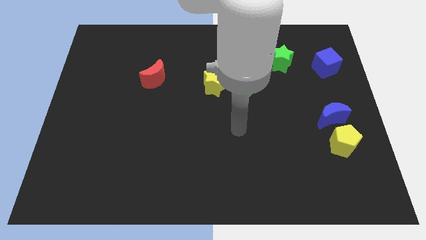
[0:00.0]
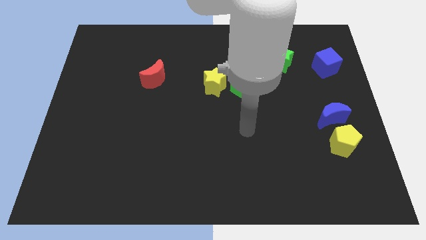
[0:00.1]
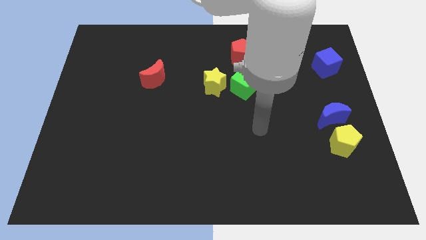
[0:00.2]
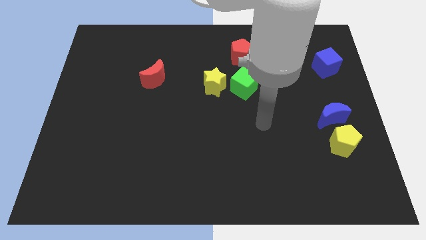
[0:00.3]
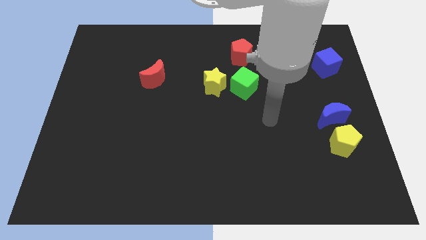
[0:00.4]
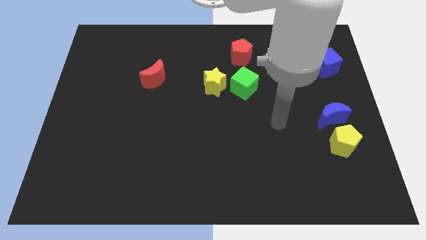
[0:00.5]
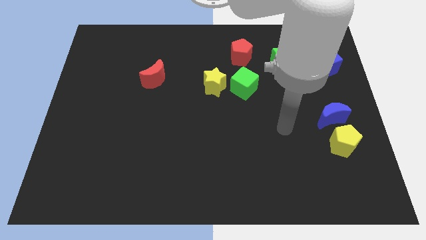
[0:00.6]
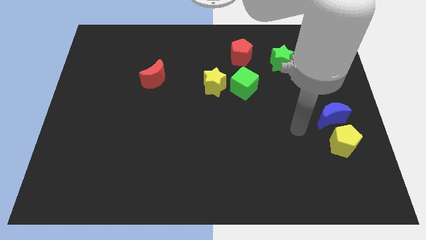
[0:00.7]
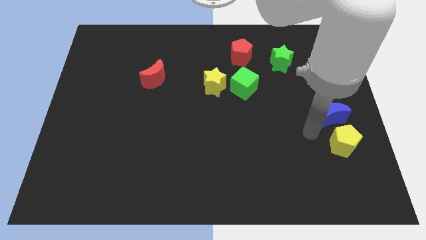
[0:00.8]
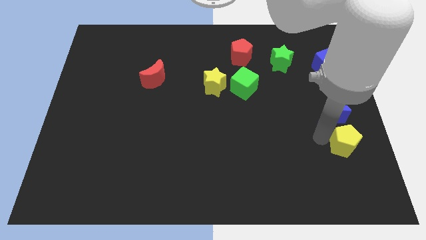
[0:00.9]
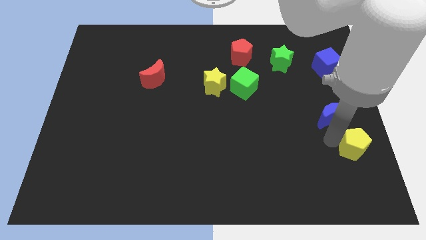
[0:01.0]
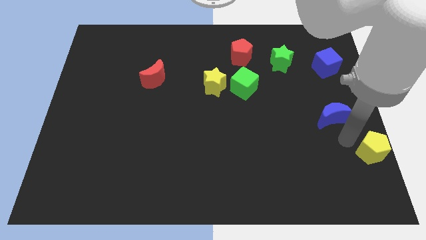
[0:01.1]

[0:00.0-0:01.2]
pull the blue moon apart from the yellow pentagon

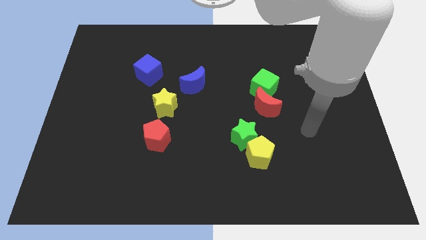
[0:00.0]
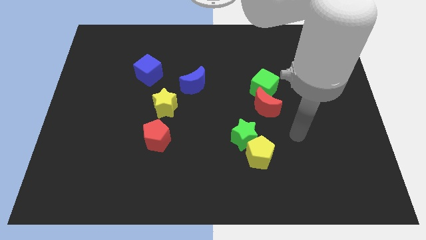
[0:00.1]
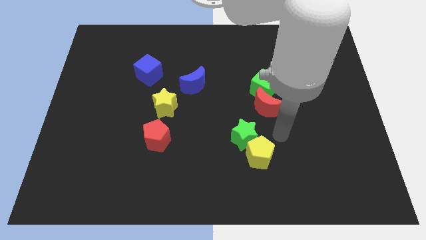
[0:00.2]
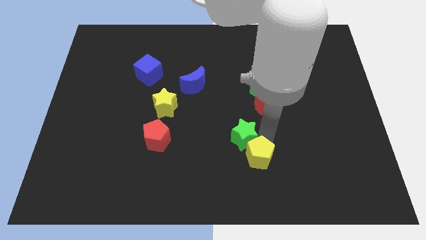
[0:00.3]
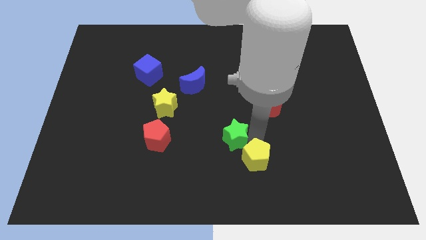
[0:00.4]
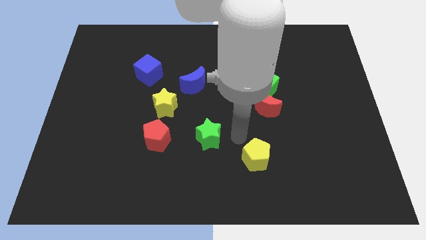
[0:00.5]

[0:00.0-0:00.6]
move the yellow pentagon away from the green star

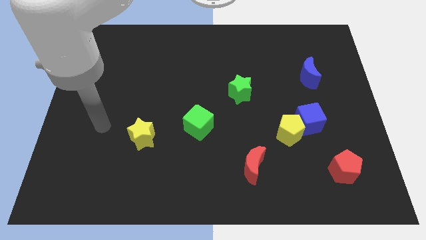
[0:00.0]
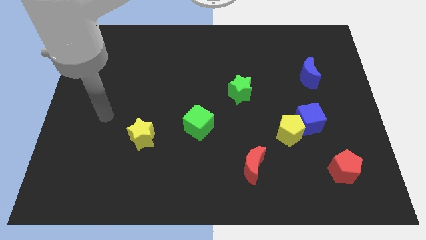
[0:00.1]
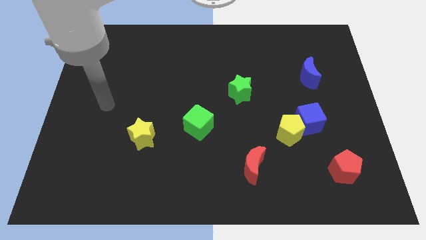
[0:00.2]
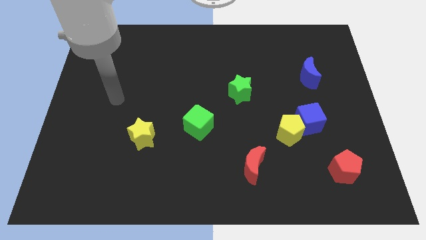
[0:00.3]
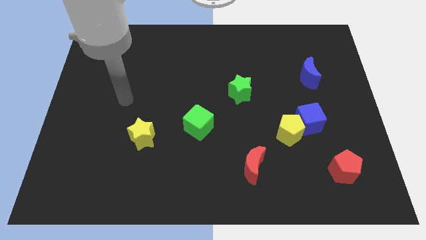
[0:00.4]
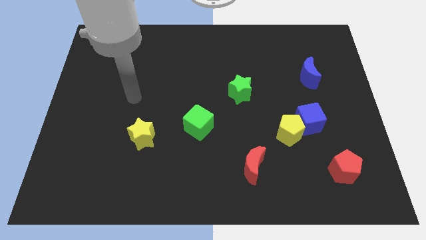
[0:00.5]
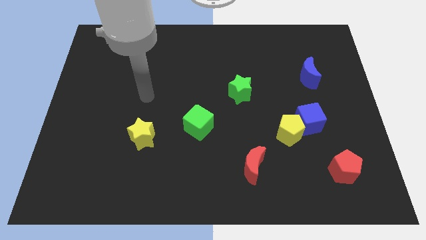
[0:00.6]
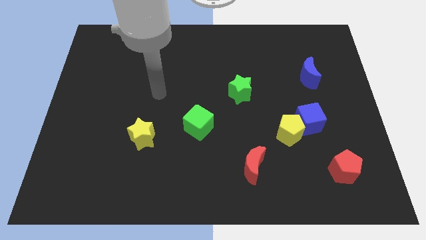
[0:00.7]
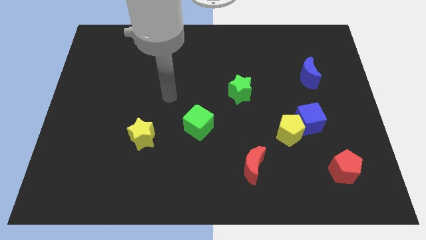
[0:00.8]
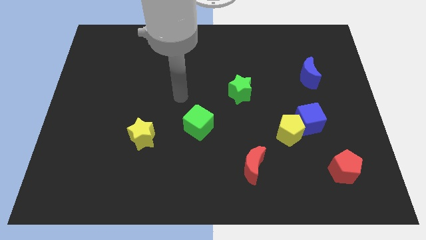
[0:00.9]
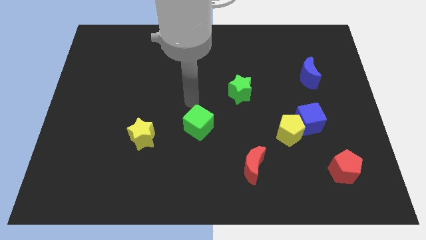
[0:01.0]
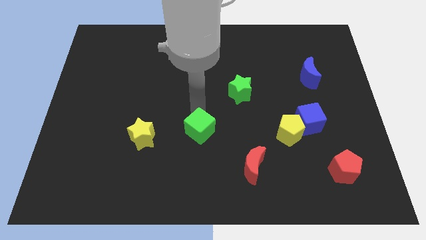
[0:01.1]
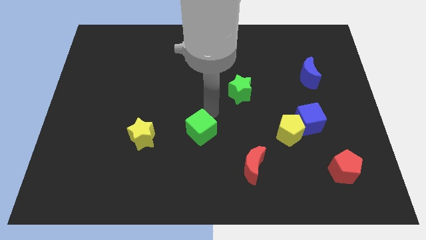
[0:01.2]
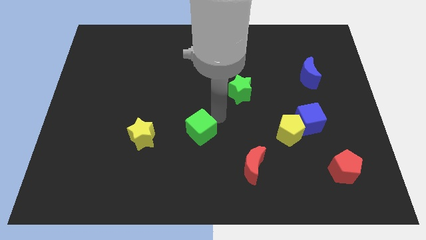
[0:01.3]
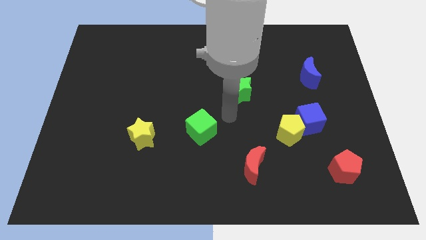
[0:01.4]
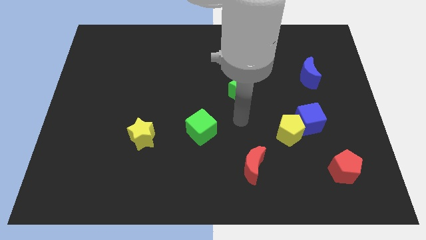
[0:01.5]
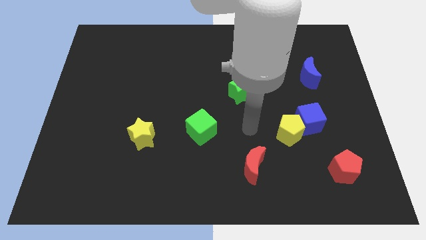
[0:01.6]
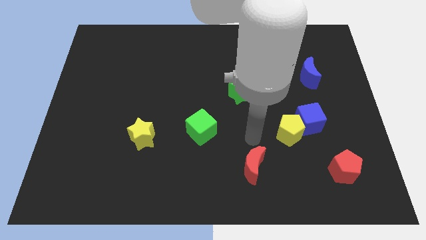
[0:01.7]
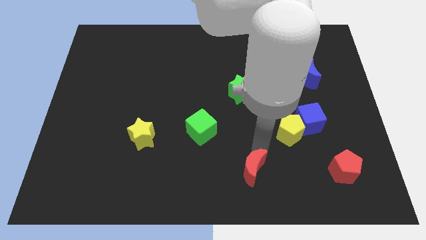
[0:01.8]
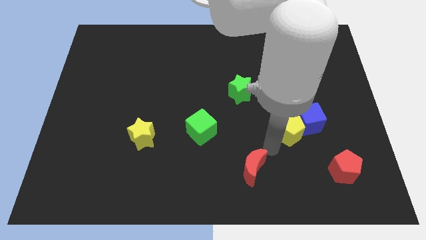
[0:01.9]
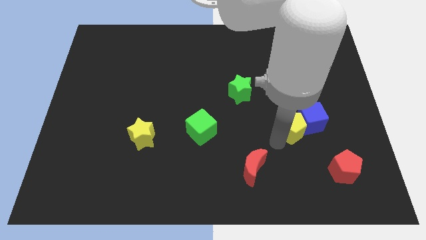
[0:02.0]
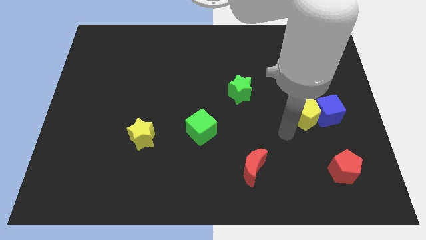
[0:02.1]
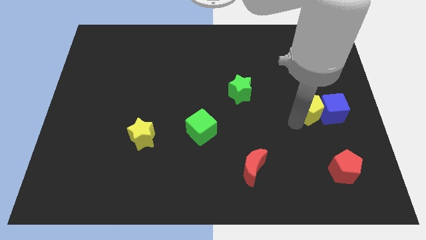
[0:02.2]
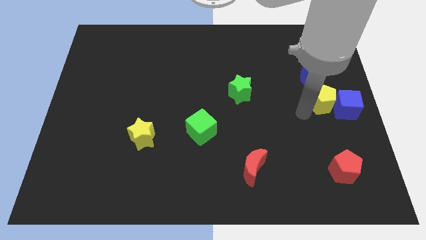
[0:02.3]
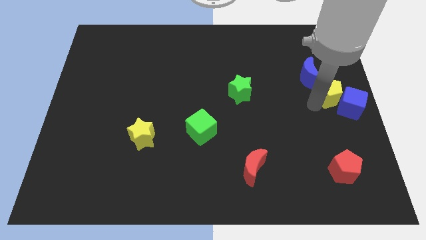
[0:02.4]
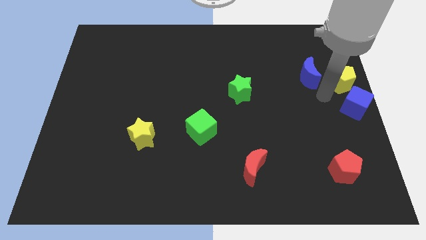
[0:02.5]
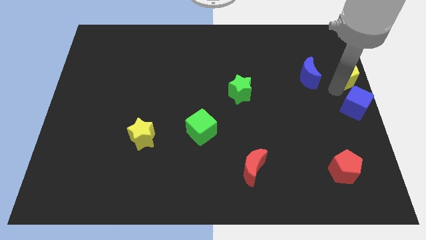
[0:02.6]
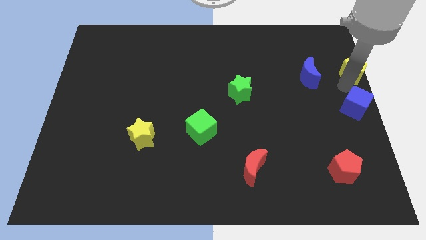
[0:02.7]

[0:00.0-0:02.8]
move the blue cube away from the yellow pentagon

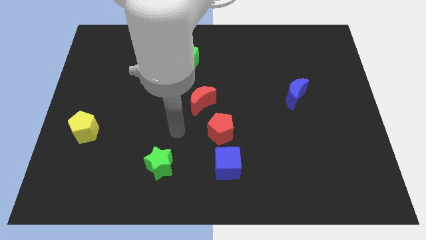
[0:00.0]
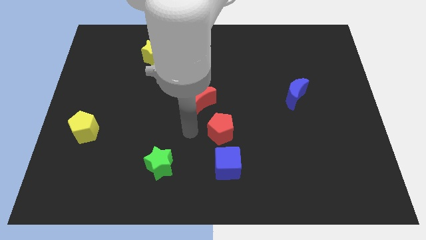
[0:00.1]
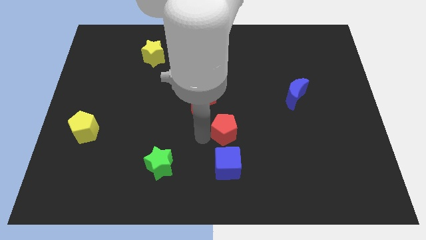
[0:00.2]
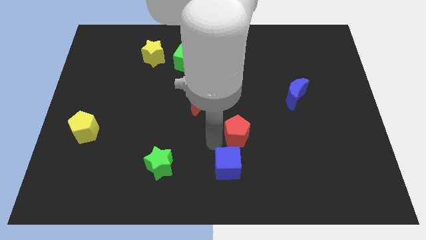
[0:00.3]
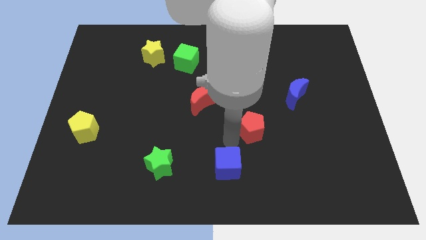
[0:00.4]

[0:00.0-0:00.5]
pull the blue cube apart from the red pentagon

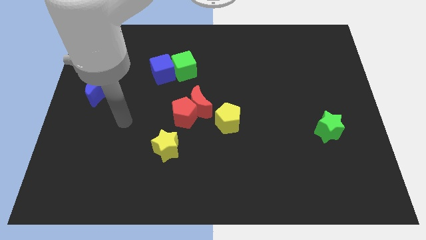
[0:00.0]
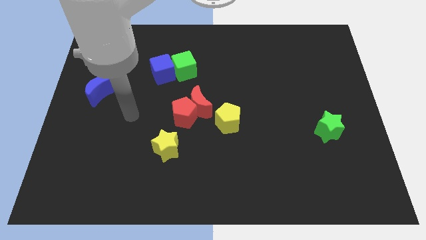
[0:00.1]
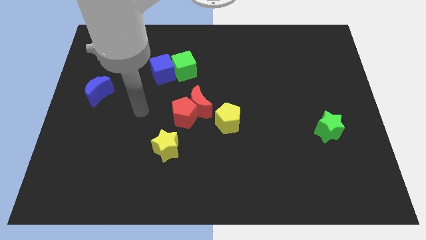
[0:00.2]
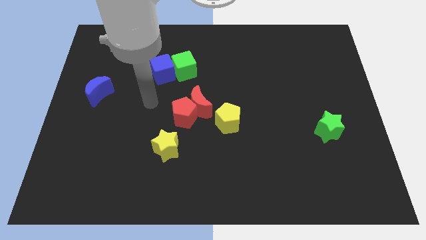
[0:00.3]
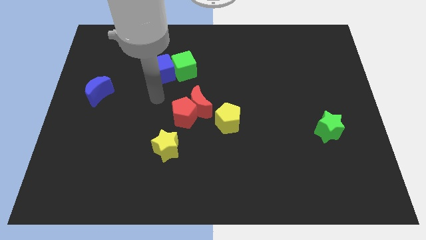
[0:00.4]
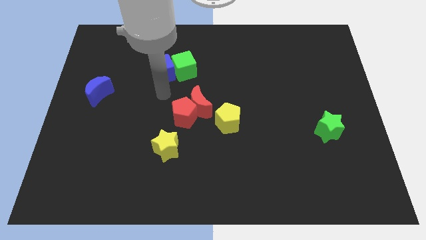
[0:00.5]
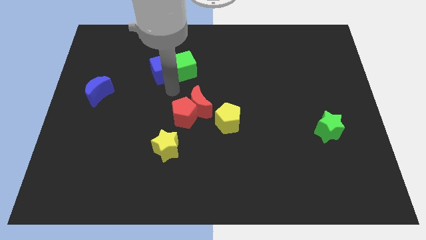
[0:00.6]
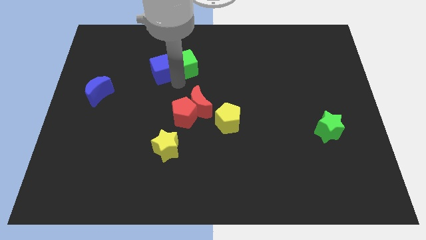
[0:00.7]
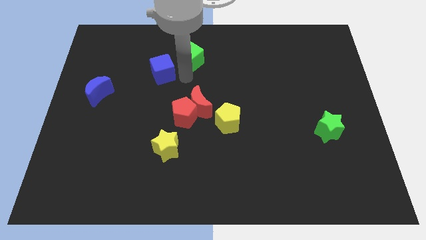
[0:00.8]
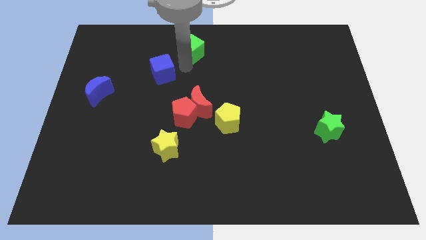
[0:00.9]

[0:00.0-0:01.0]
separate the blue cube from the green cube

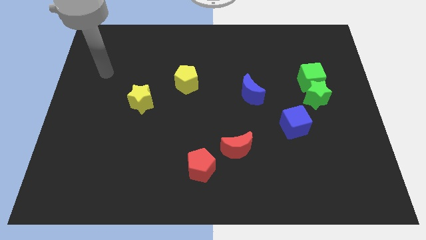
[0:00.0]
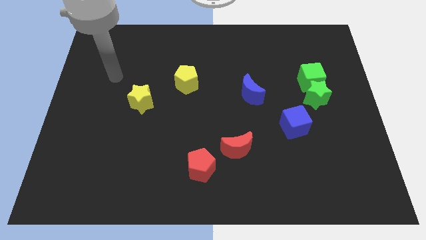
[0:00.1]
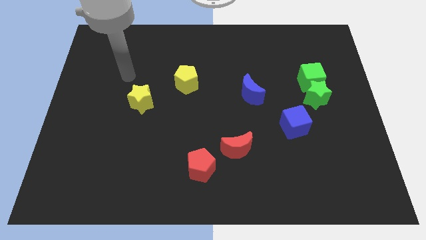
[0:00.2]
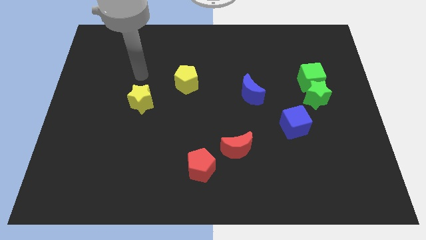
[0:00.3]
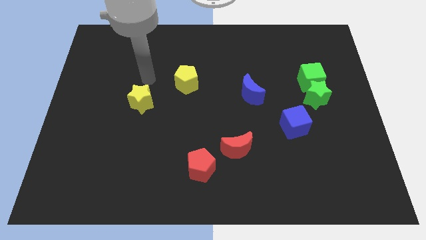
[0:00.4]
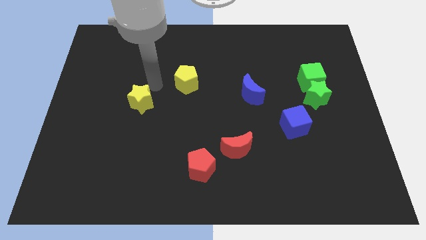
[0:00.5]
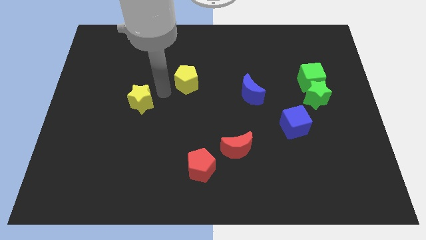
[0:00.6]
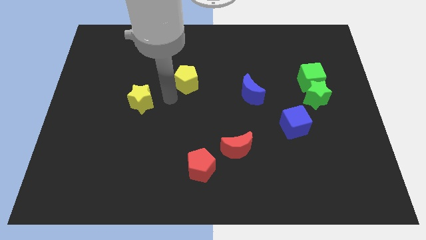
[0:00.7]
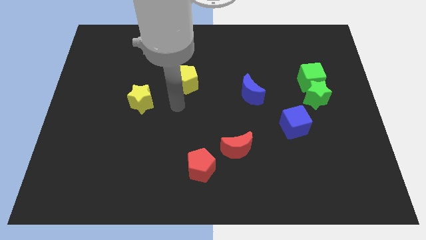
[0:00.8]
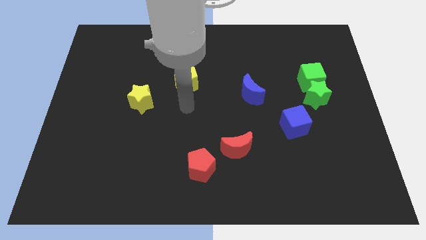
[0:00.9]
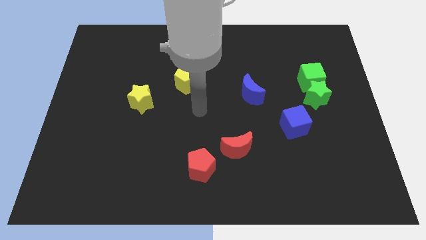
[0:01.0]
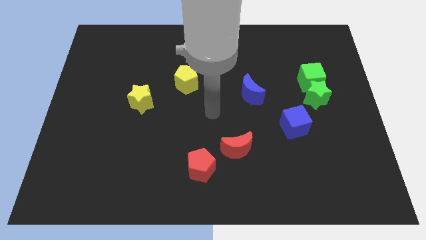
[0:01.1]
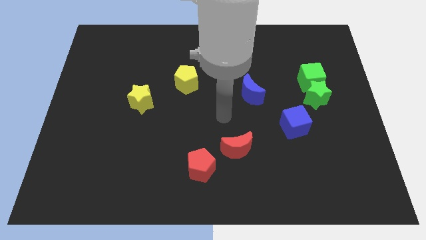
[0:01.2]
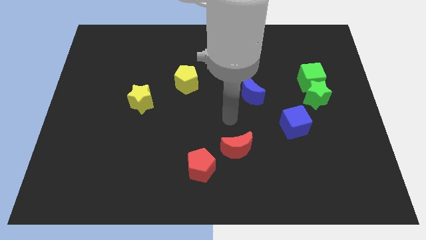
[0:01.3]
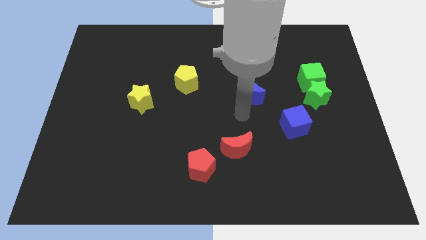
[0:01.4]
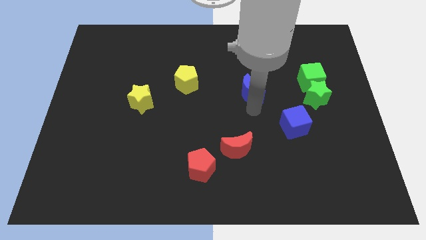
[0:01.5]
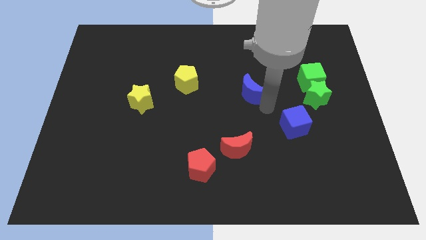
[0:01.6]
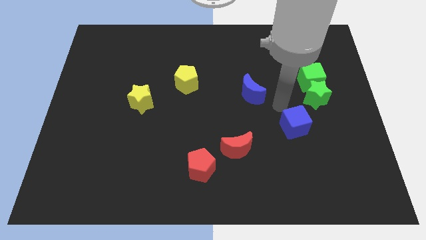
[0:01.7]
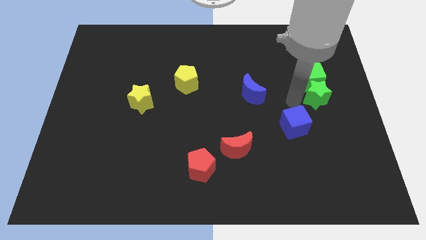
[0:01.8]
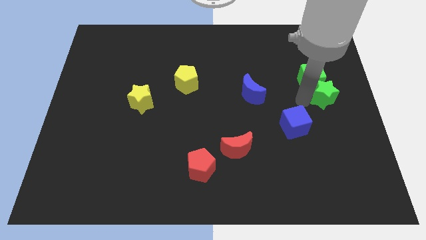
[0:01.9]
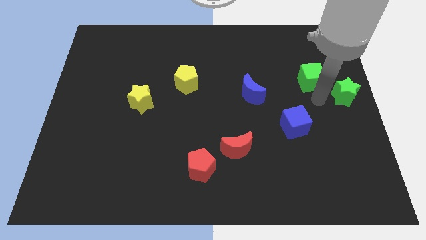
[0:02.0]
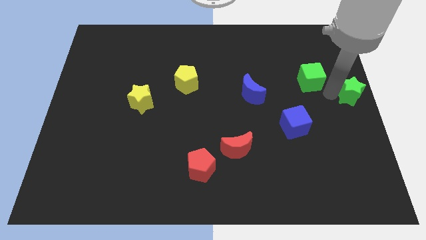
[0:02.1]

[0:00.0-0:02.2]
separate the green cube from the green star

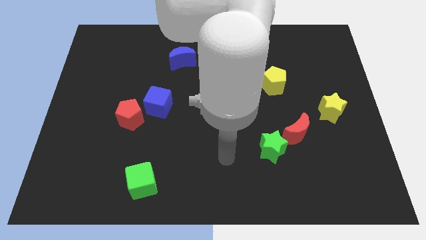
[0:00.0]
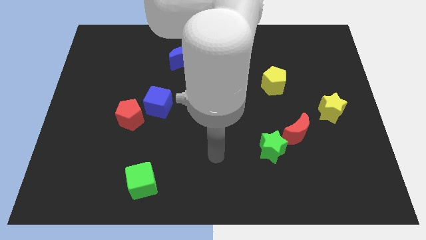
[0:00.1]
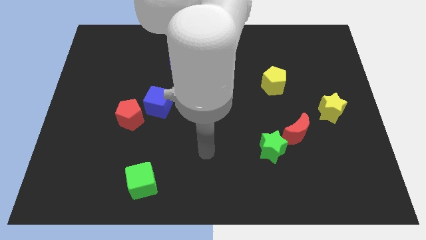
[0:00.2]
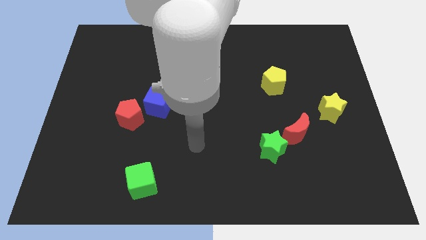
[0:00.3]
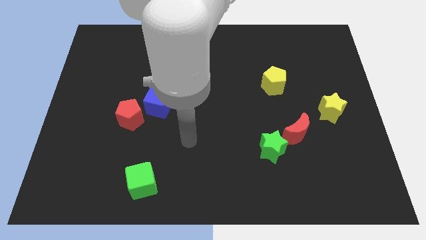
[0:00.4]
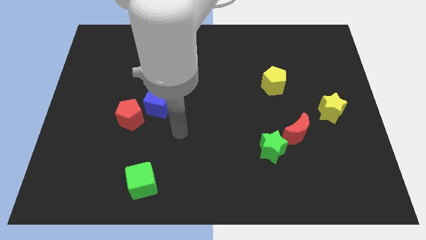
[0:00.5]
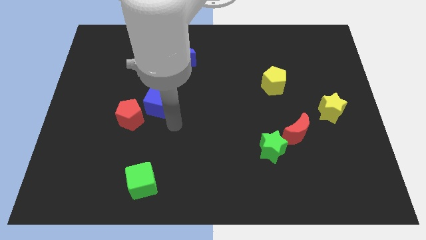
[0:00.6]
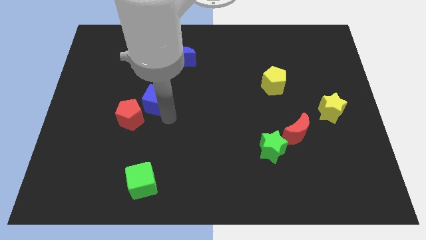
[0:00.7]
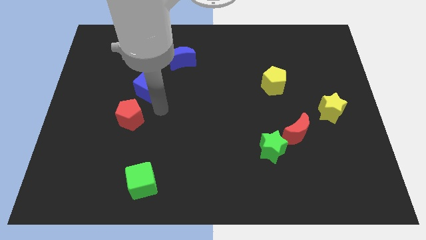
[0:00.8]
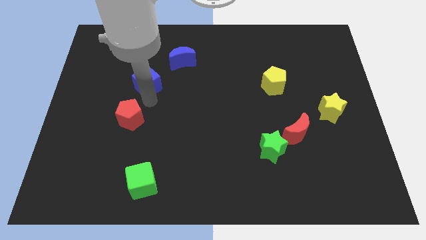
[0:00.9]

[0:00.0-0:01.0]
separate the red pentagon from the blue cube

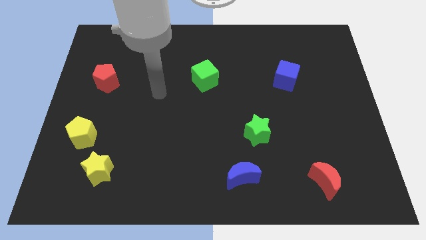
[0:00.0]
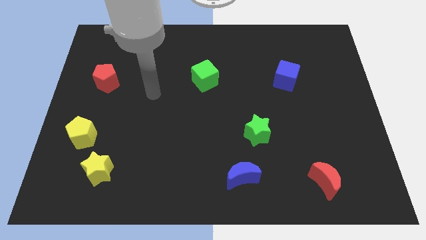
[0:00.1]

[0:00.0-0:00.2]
pull the yellow star apart from the yellow pentagon
